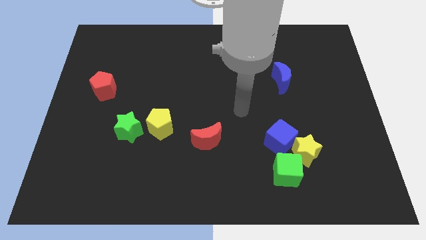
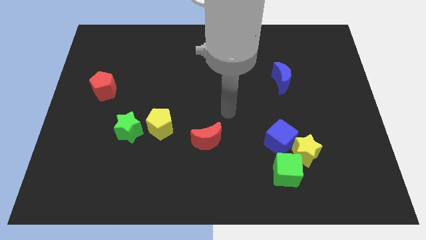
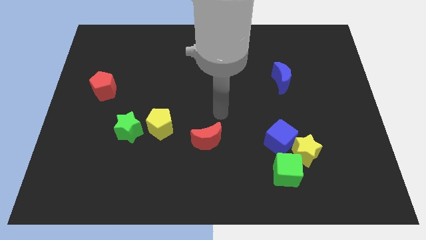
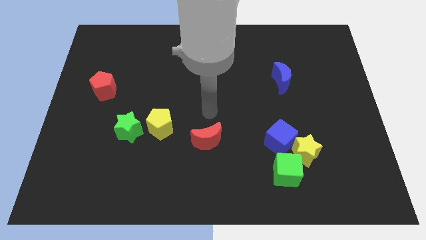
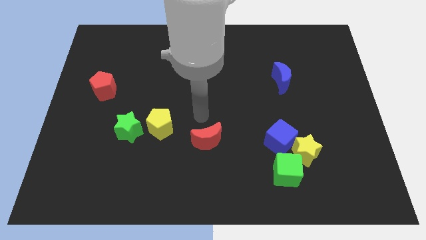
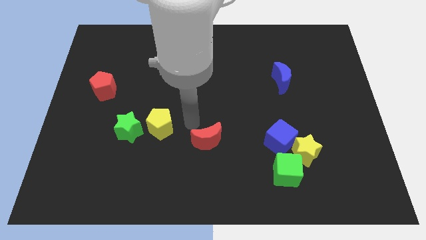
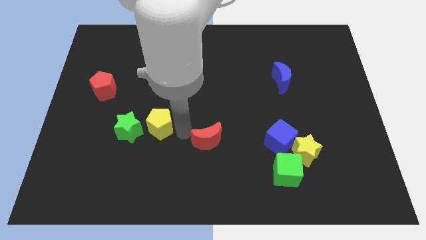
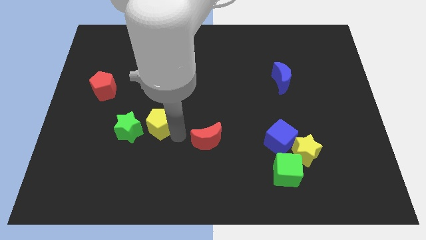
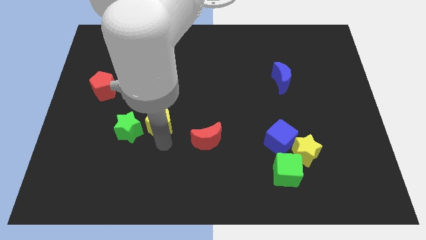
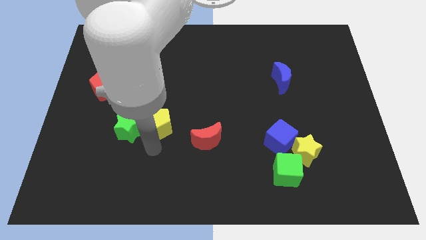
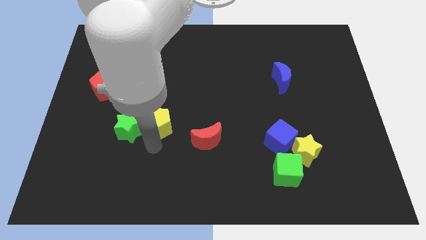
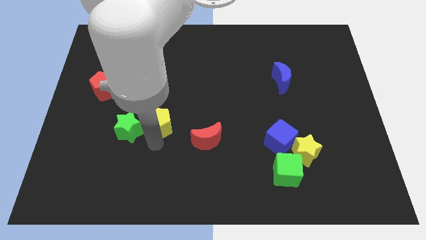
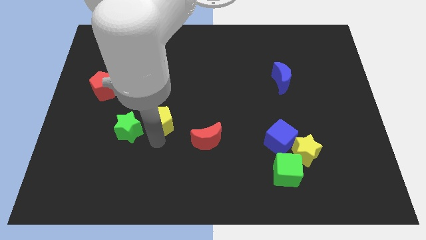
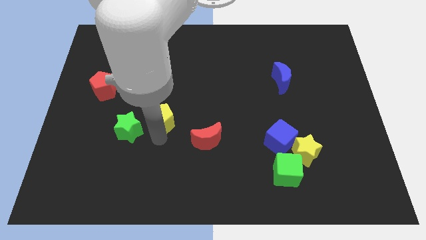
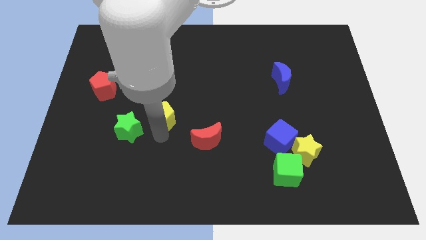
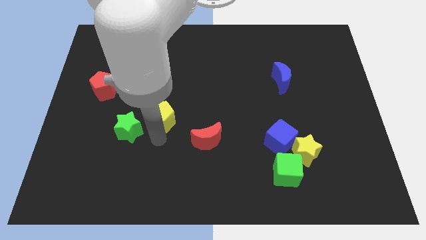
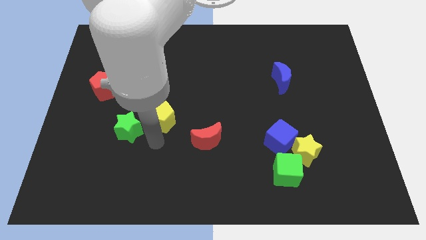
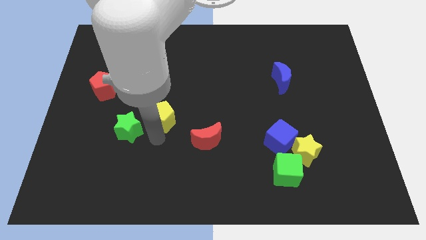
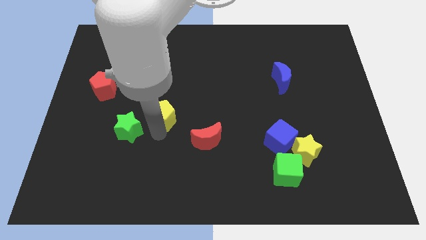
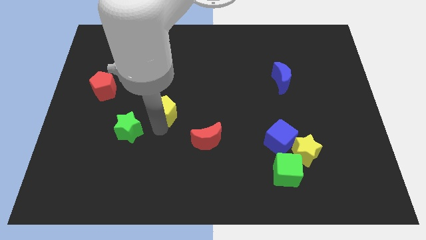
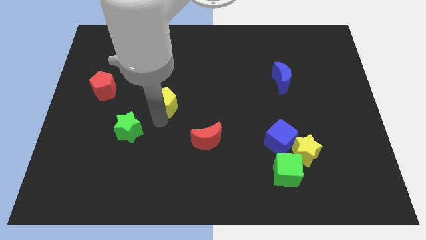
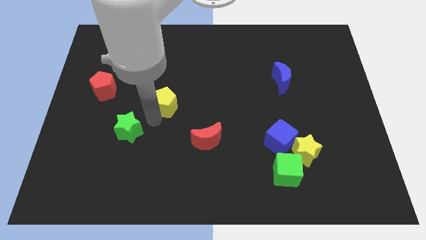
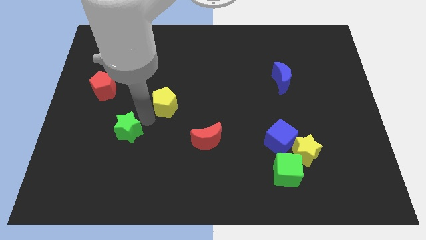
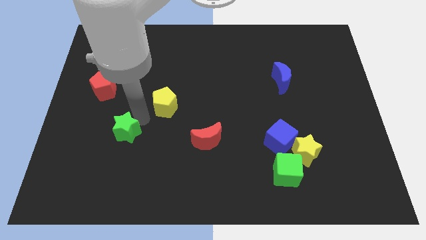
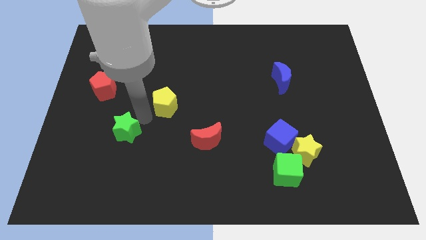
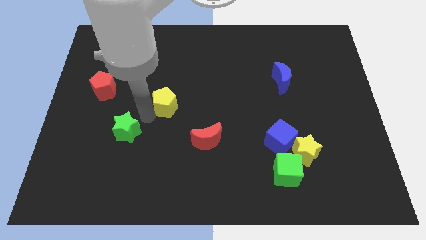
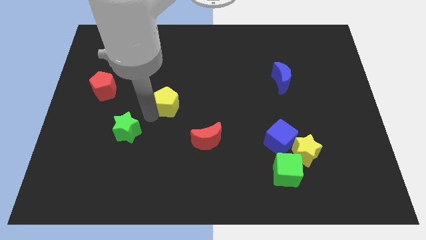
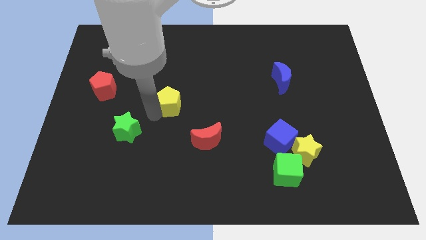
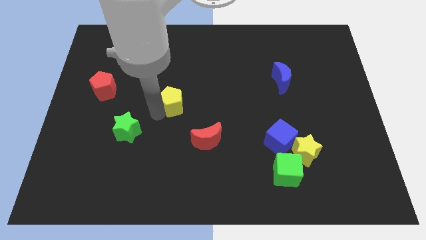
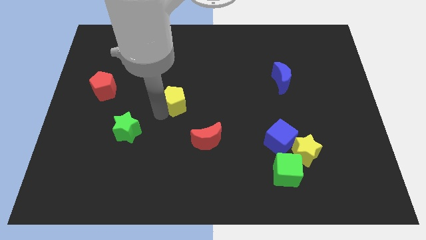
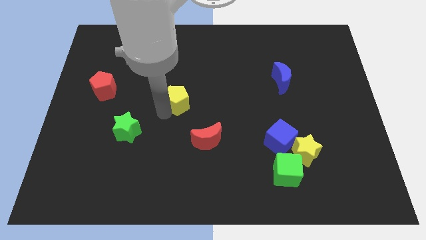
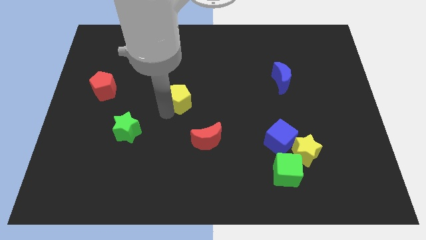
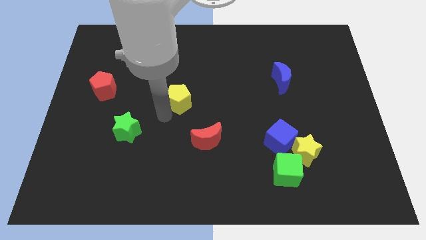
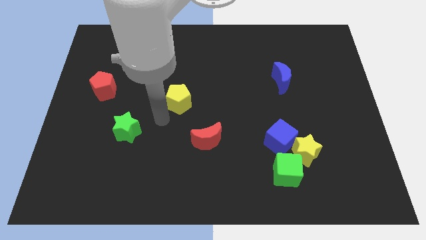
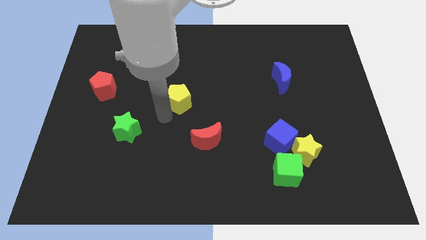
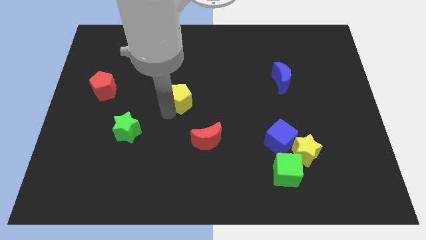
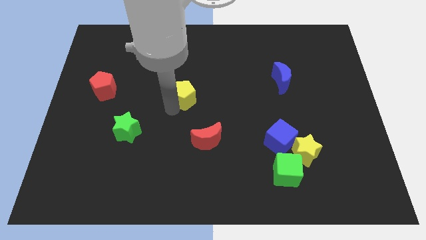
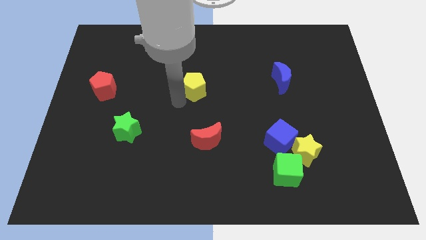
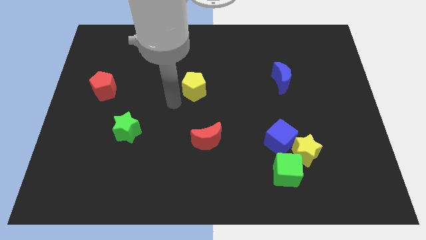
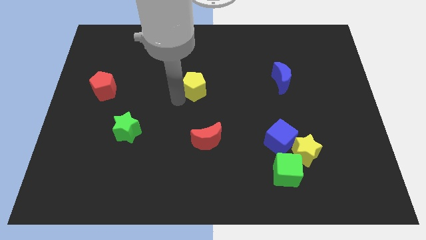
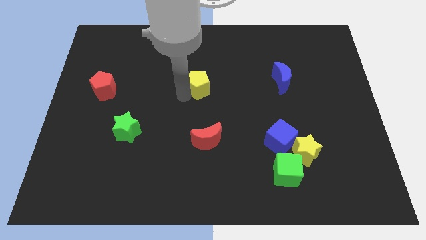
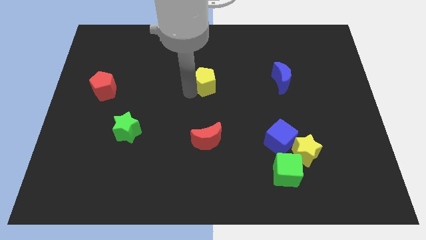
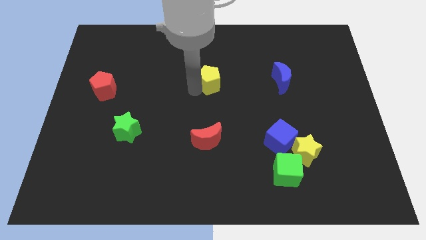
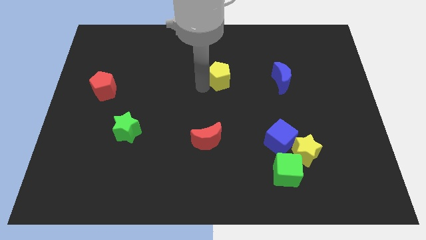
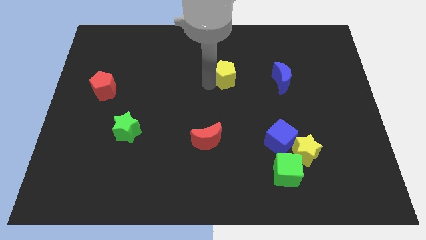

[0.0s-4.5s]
push the yellow pentagon upwards and right diagonally

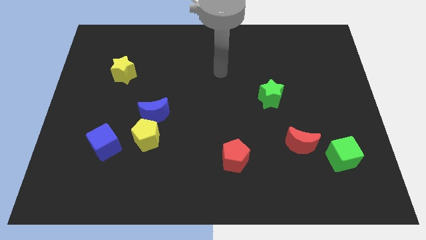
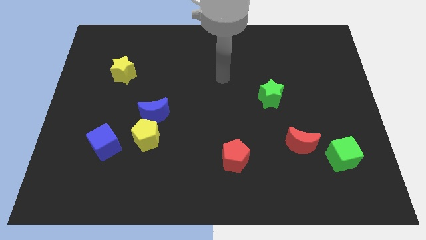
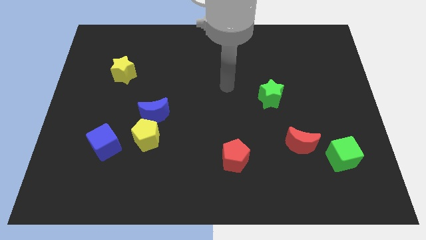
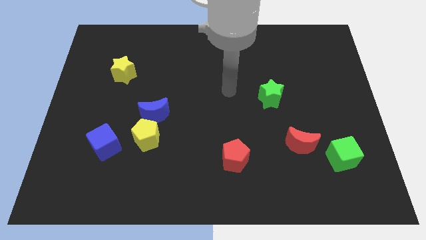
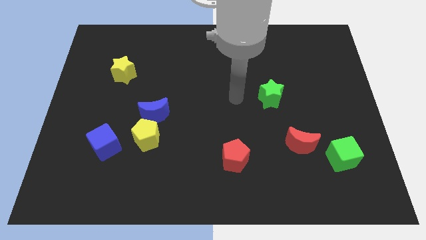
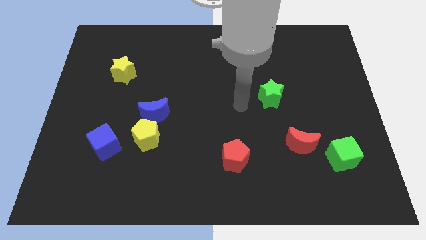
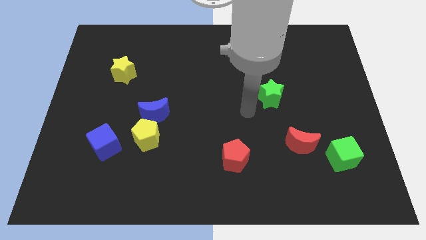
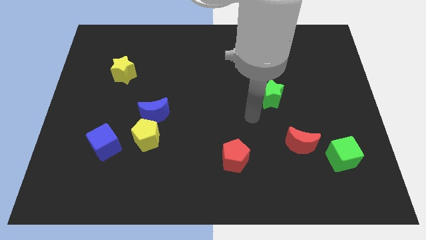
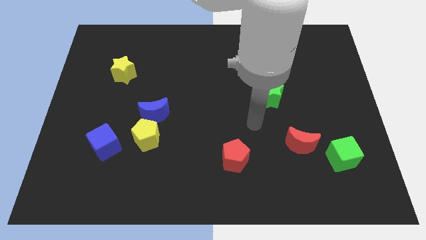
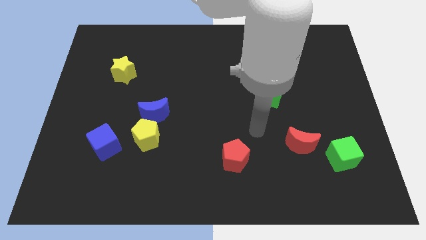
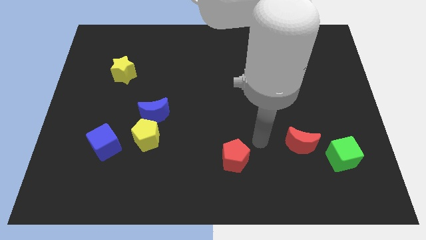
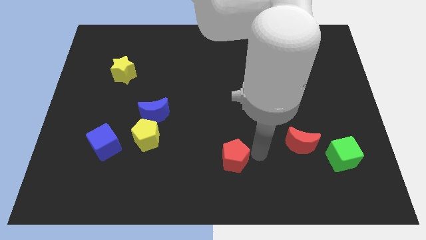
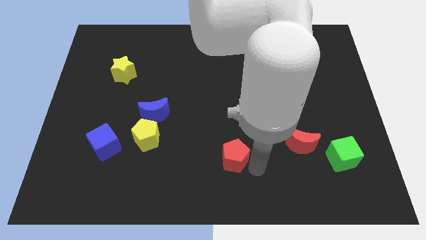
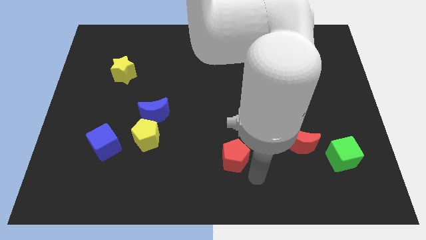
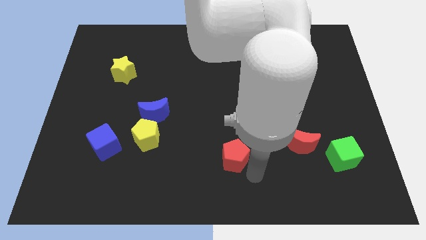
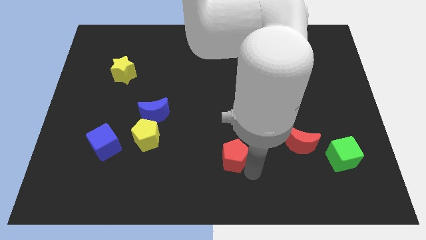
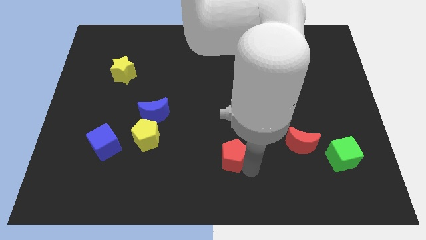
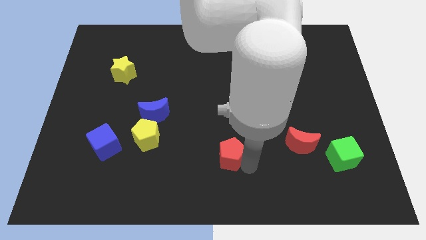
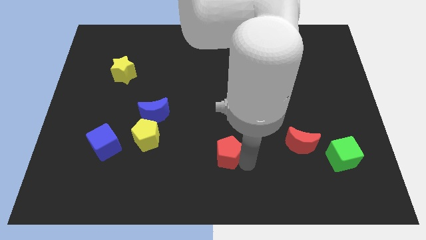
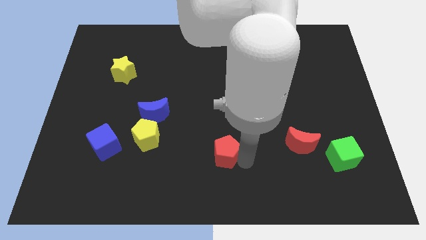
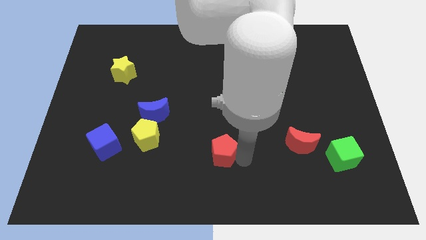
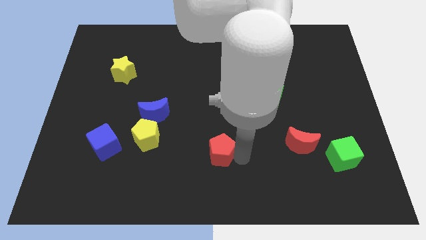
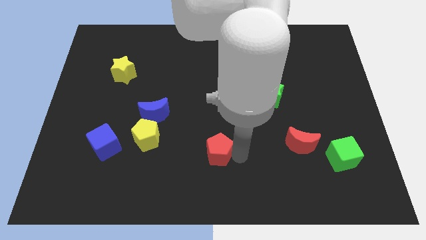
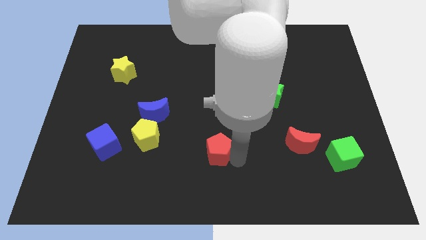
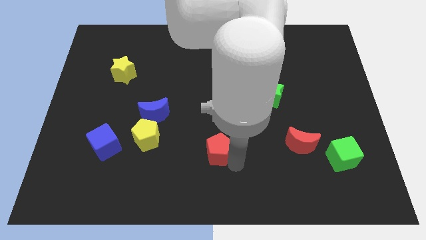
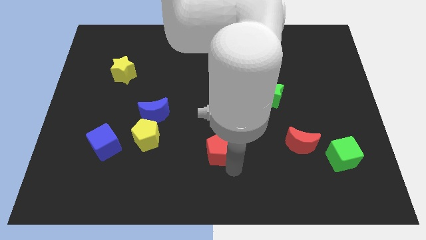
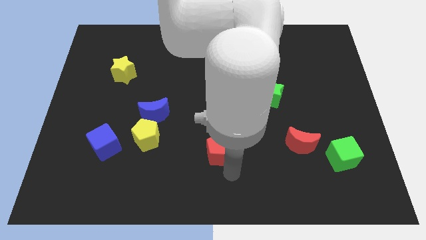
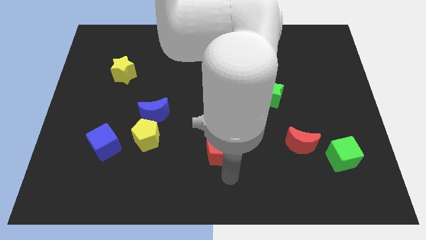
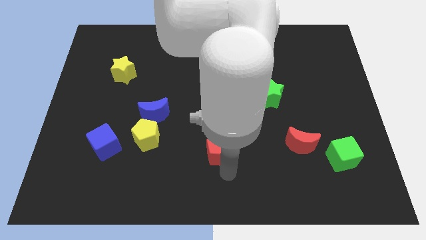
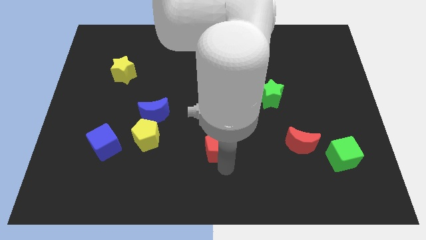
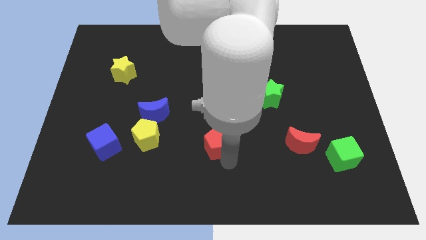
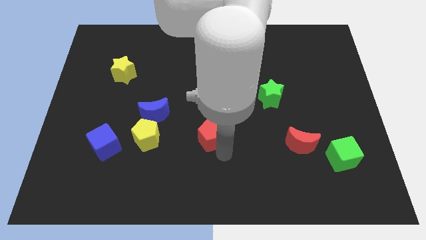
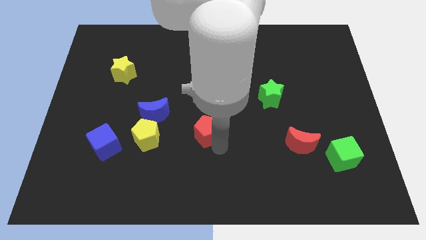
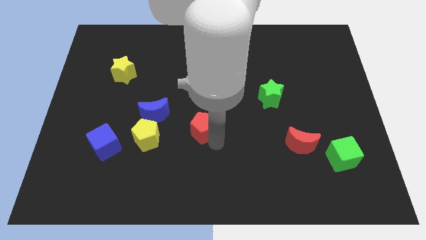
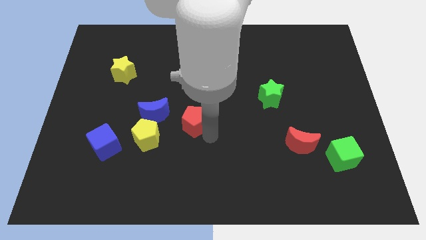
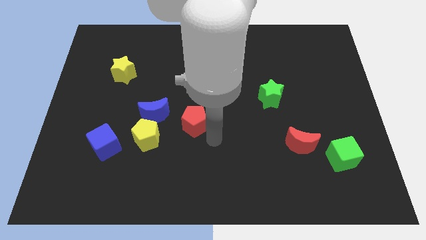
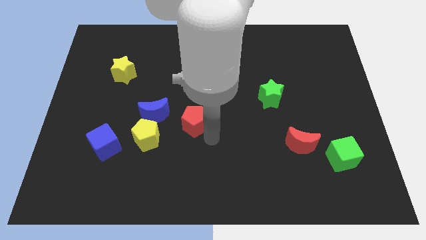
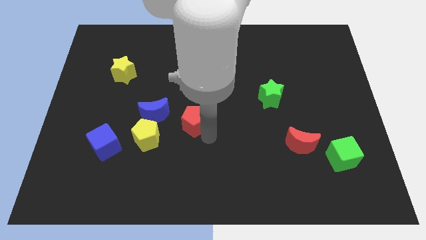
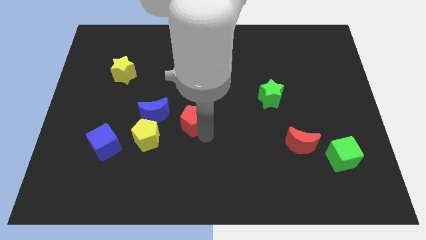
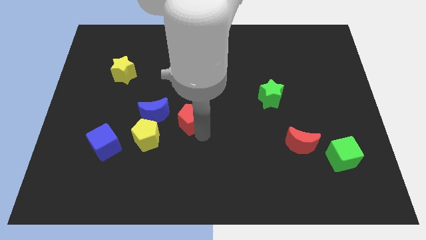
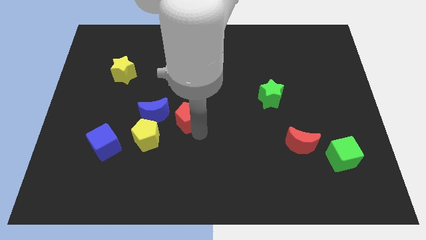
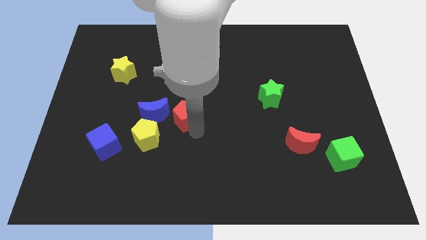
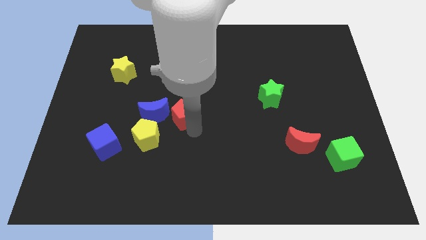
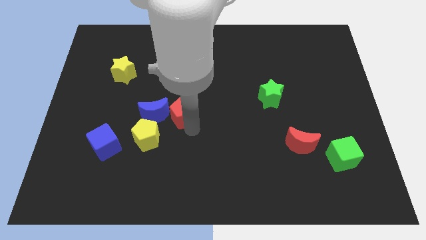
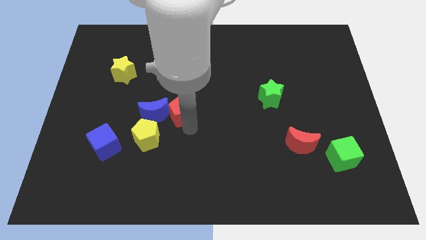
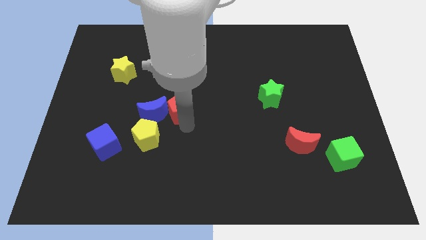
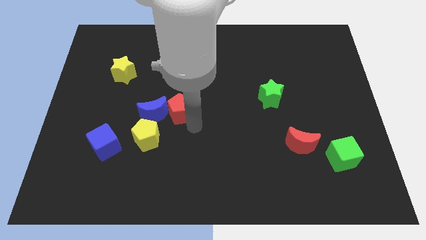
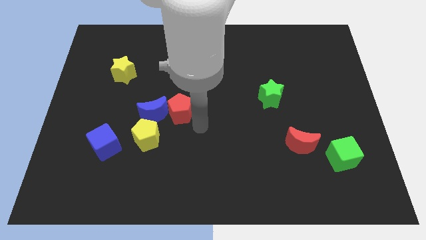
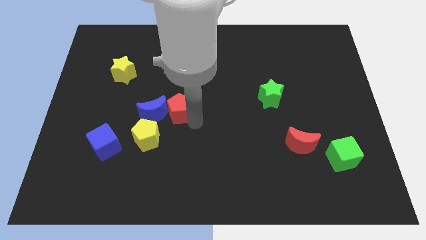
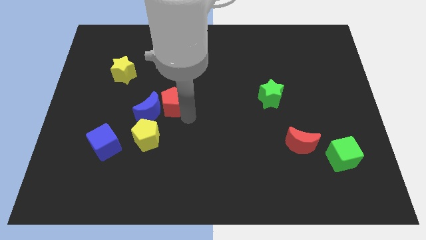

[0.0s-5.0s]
push the red pentagon upwards and left diagonally
